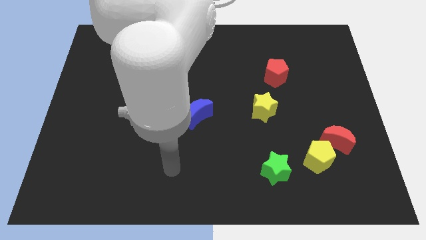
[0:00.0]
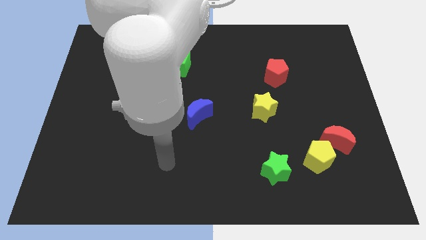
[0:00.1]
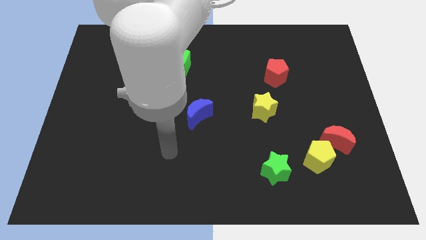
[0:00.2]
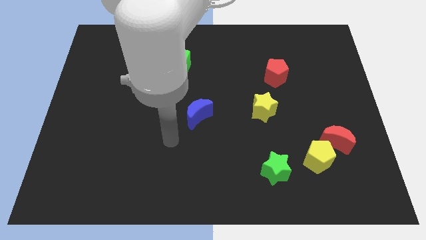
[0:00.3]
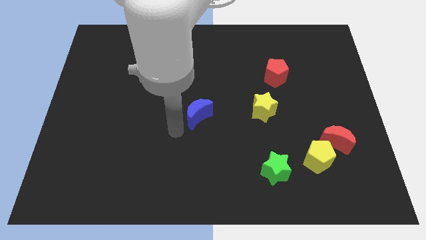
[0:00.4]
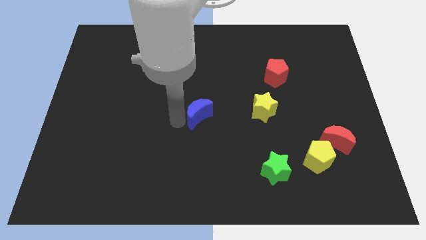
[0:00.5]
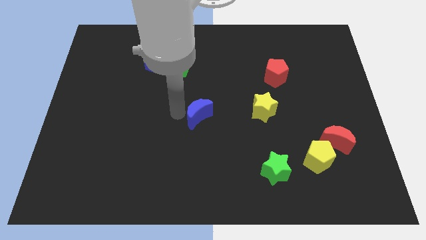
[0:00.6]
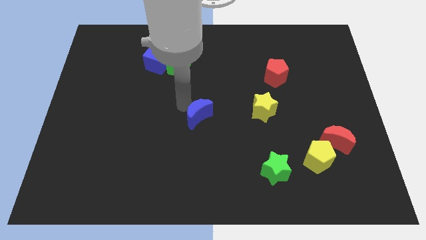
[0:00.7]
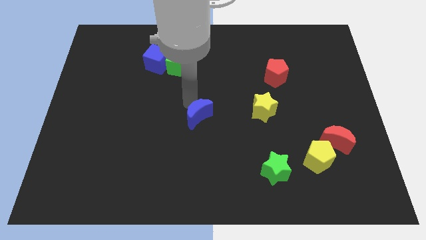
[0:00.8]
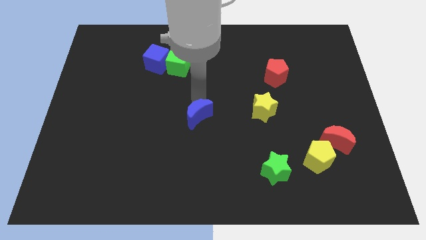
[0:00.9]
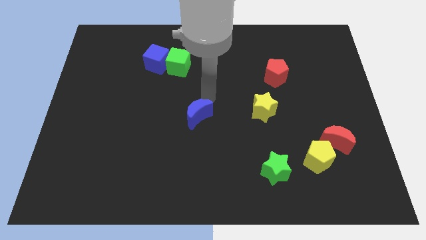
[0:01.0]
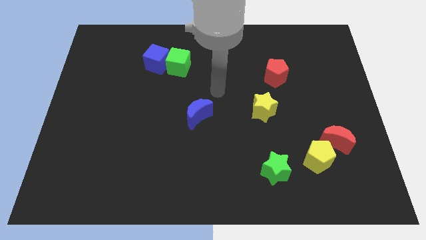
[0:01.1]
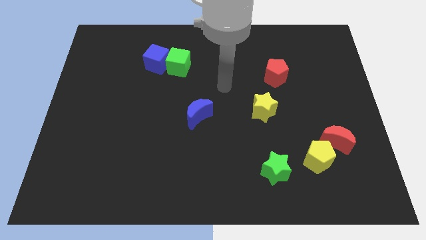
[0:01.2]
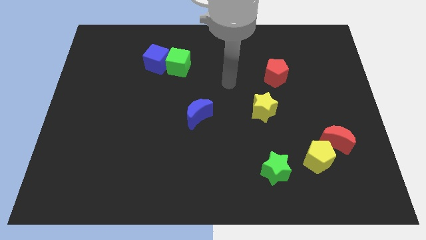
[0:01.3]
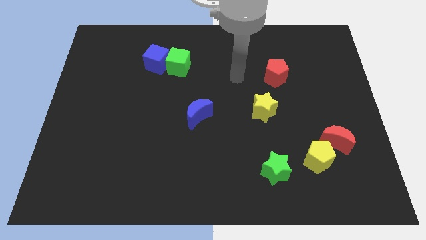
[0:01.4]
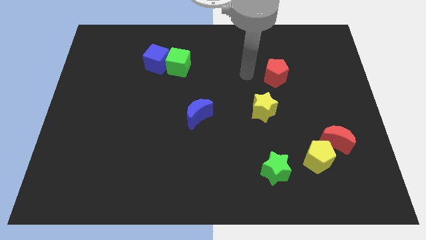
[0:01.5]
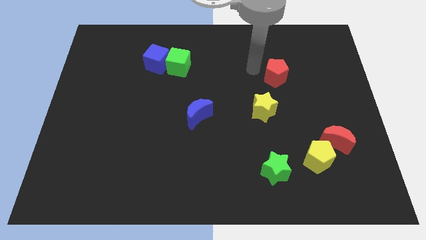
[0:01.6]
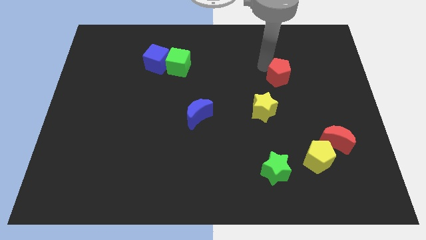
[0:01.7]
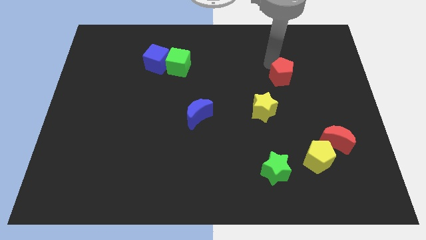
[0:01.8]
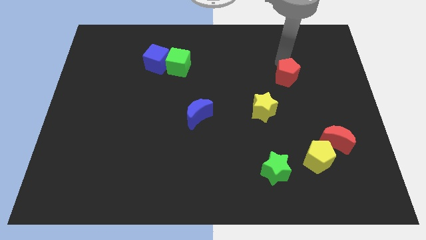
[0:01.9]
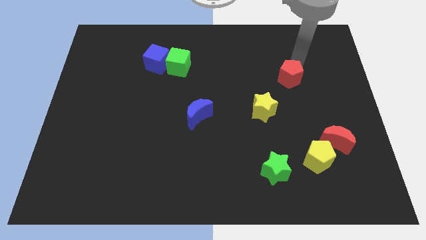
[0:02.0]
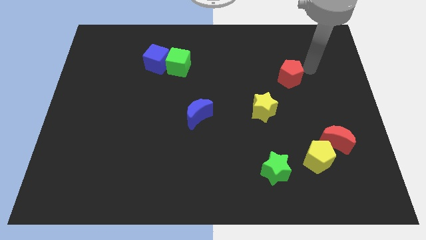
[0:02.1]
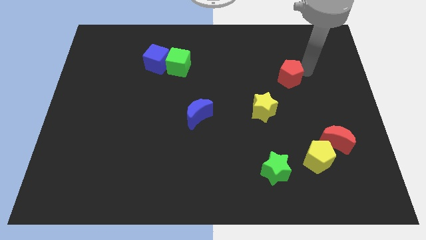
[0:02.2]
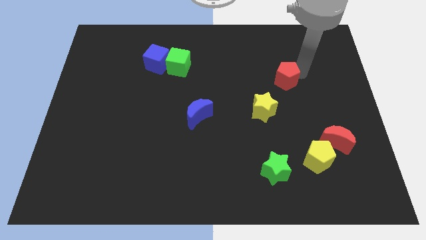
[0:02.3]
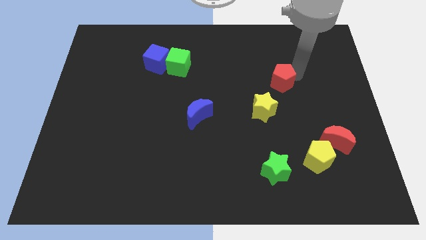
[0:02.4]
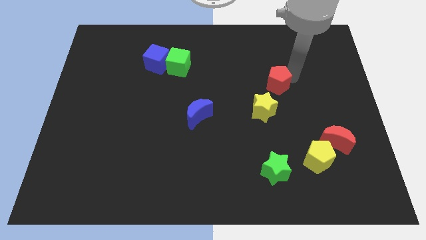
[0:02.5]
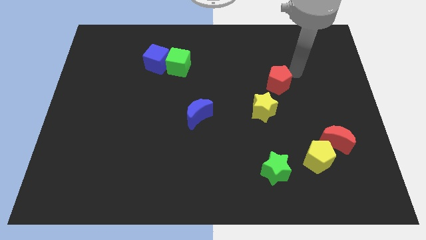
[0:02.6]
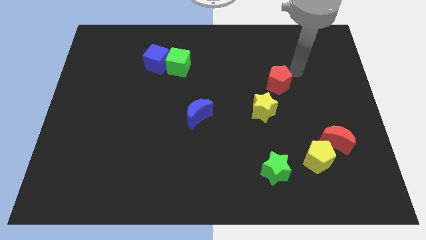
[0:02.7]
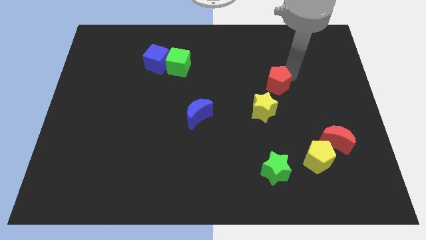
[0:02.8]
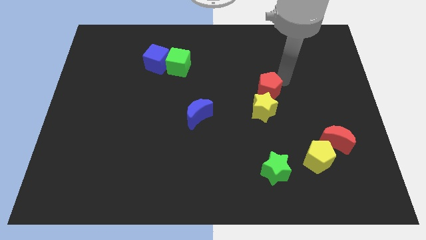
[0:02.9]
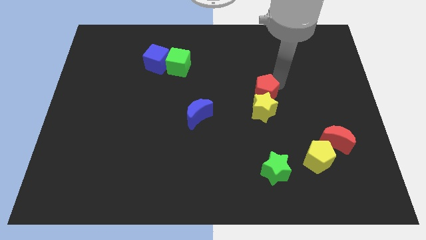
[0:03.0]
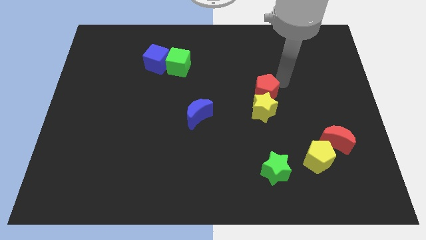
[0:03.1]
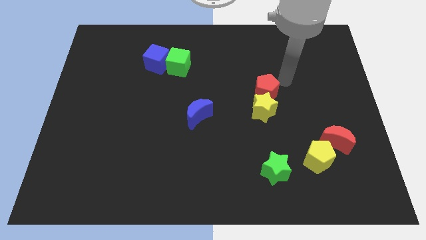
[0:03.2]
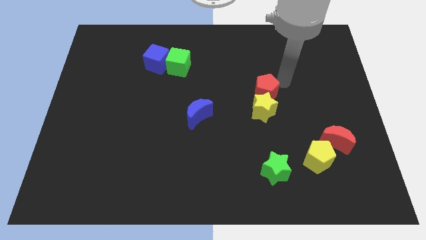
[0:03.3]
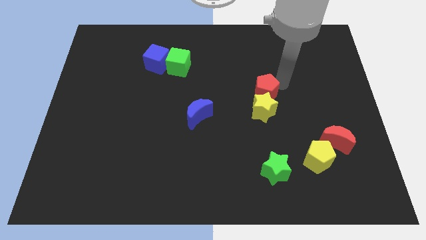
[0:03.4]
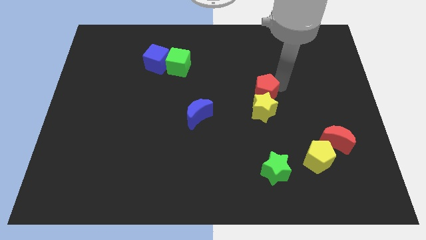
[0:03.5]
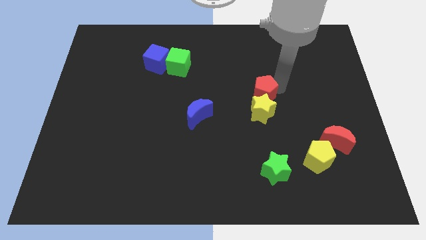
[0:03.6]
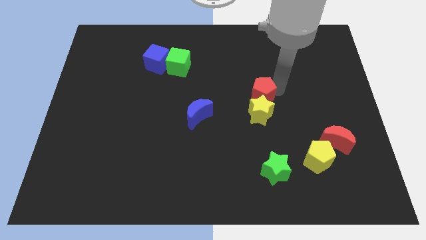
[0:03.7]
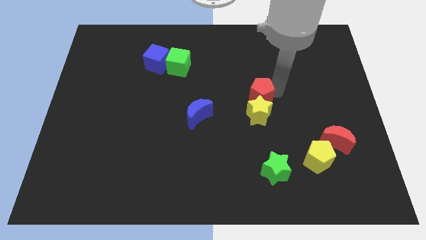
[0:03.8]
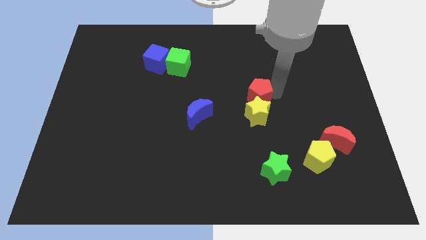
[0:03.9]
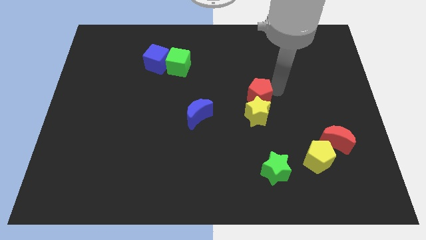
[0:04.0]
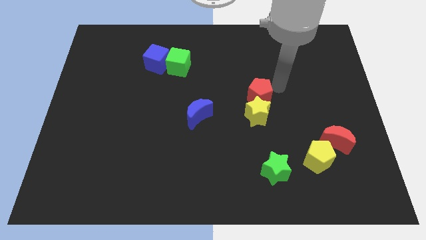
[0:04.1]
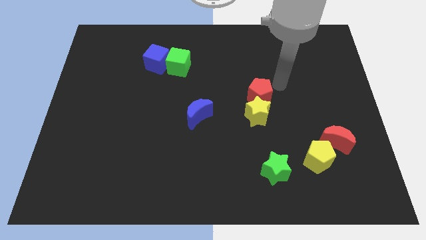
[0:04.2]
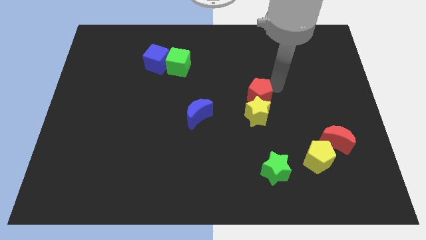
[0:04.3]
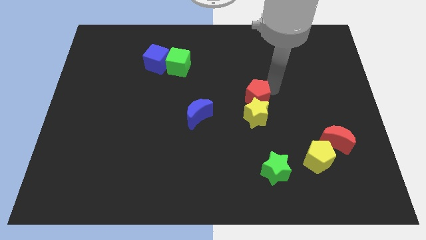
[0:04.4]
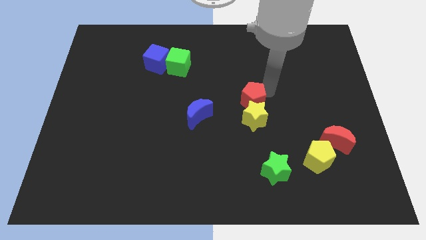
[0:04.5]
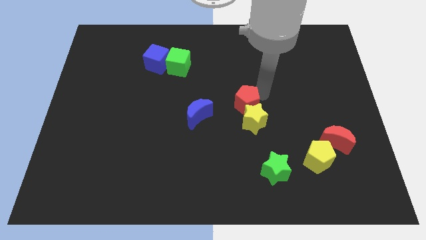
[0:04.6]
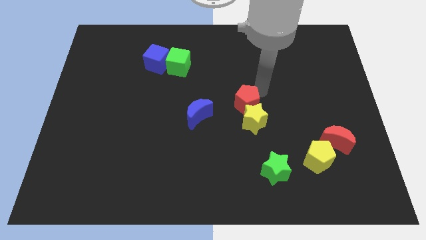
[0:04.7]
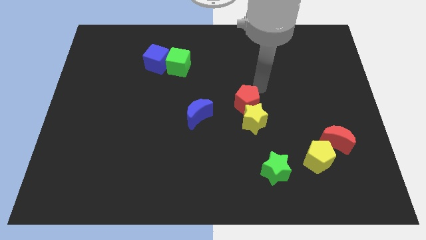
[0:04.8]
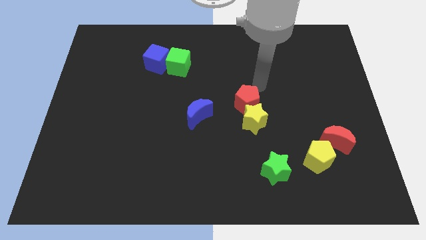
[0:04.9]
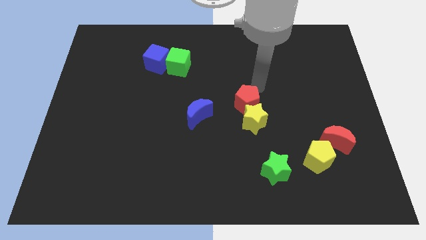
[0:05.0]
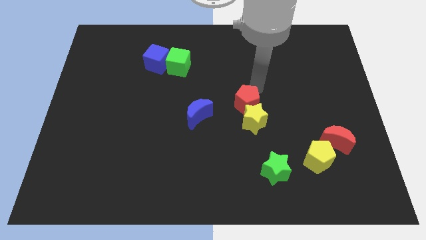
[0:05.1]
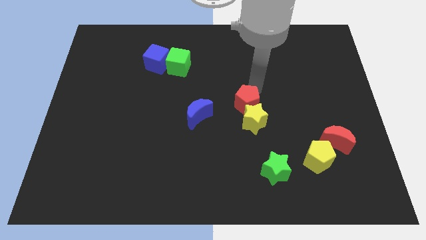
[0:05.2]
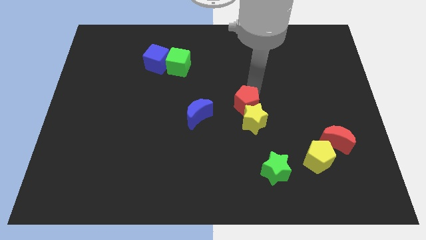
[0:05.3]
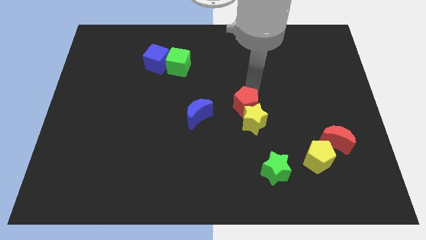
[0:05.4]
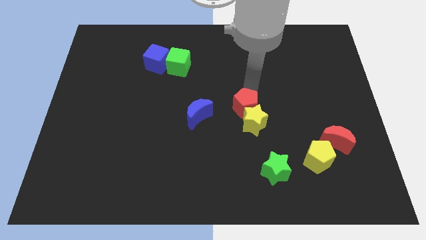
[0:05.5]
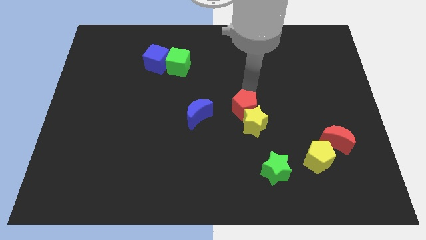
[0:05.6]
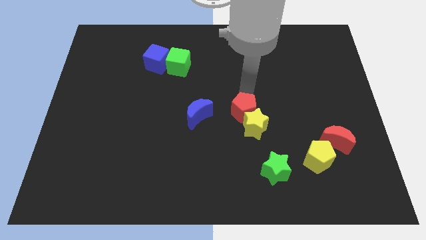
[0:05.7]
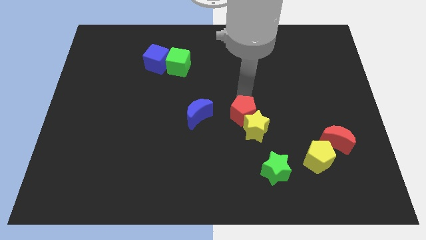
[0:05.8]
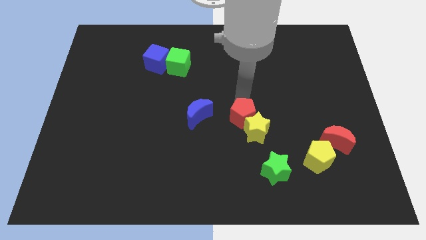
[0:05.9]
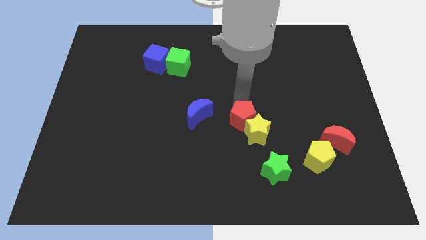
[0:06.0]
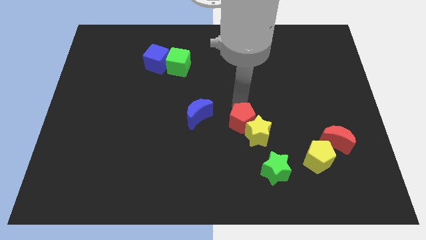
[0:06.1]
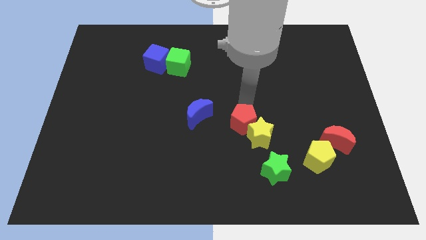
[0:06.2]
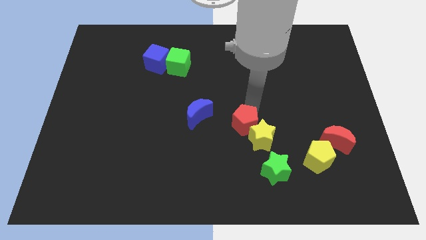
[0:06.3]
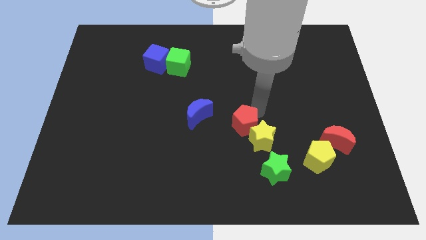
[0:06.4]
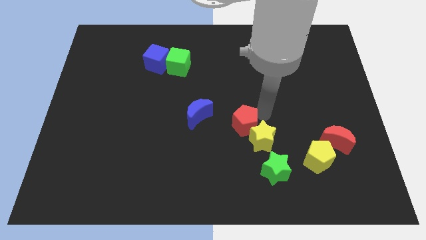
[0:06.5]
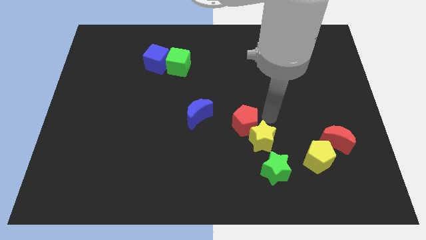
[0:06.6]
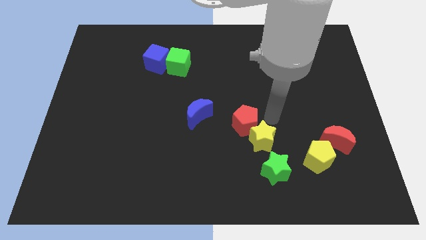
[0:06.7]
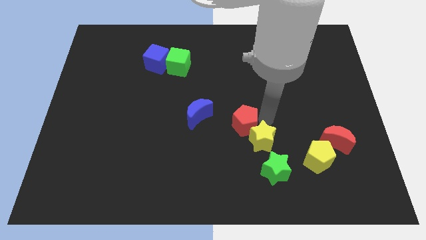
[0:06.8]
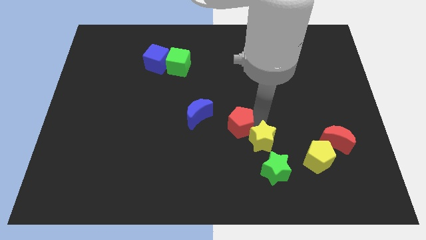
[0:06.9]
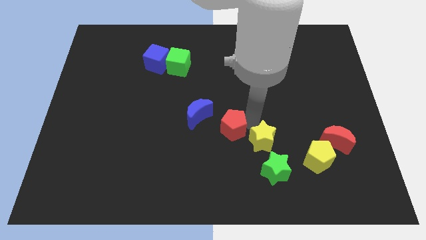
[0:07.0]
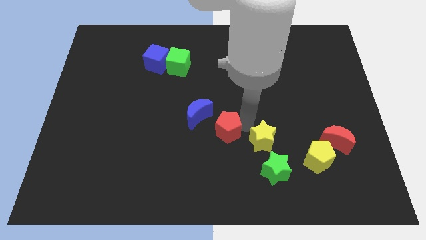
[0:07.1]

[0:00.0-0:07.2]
move the red pentagon diagonally downwards and to the left

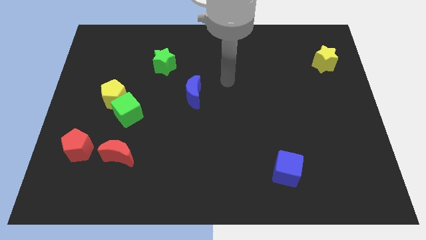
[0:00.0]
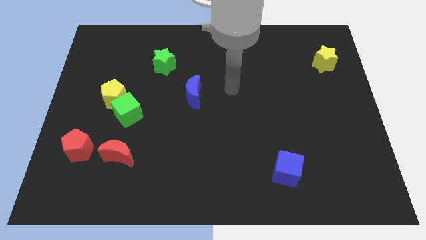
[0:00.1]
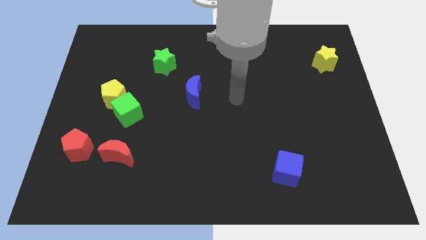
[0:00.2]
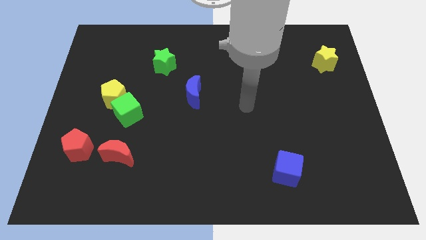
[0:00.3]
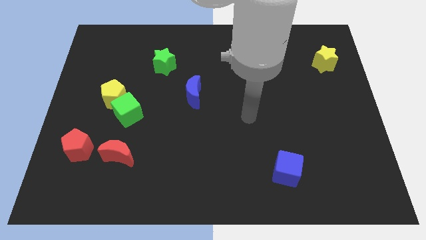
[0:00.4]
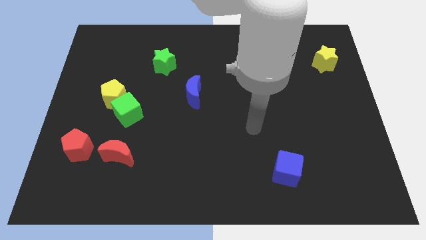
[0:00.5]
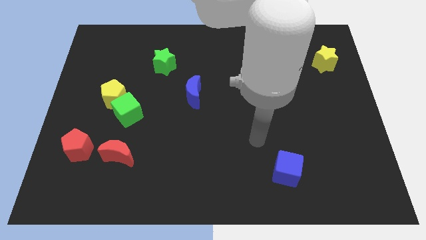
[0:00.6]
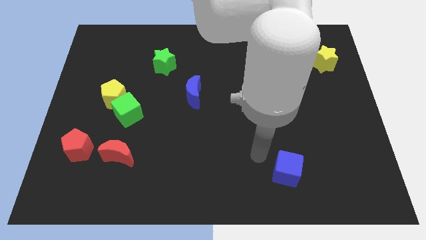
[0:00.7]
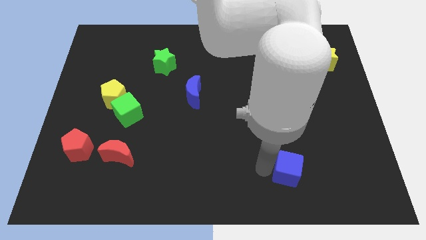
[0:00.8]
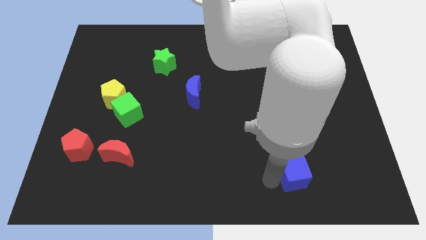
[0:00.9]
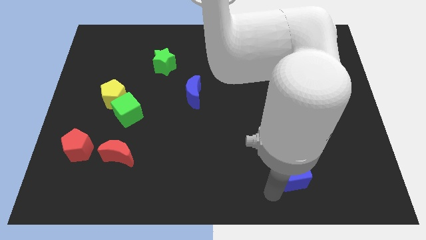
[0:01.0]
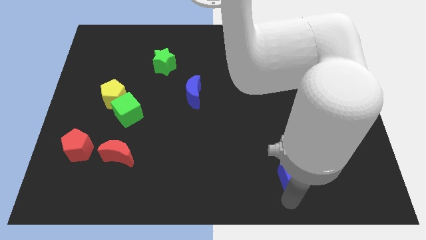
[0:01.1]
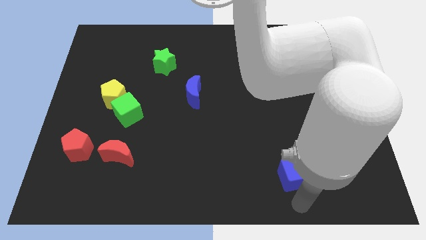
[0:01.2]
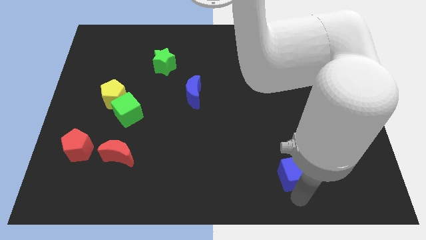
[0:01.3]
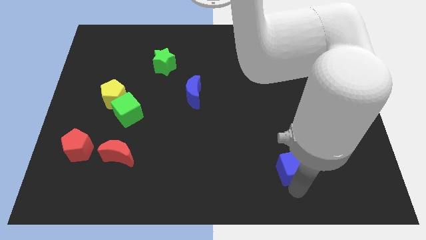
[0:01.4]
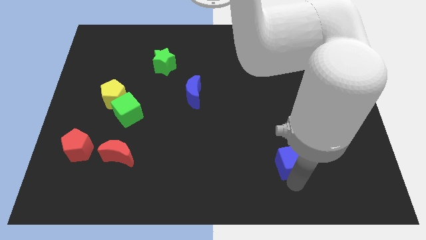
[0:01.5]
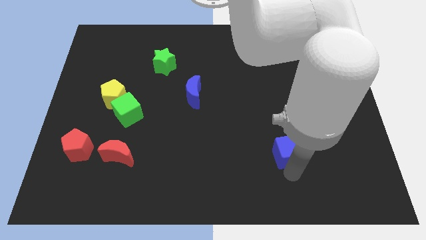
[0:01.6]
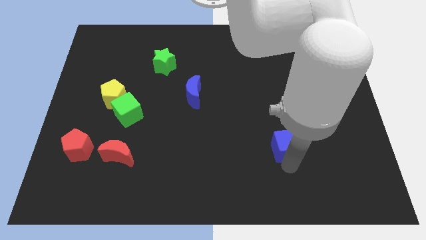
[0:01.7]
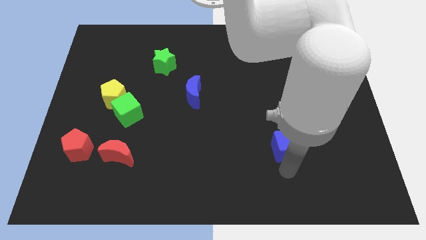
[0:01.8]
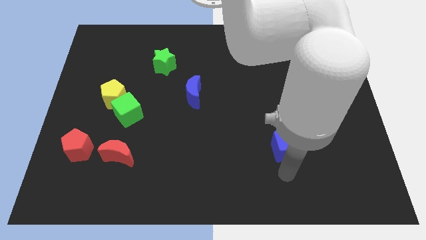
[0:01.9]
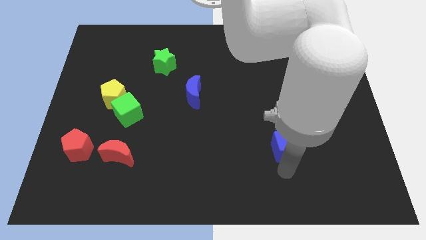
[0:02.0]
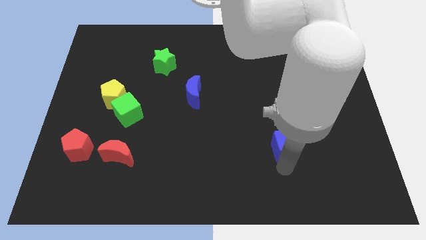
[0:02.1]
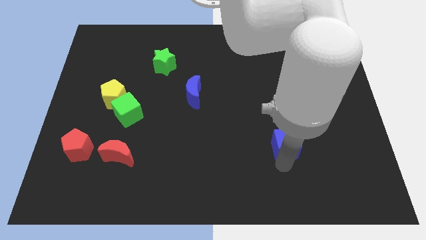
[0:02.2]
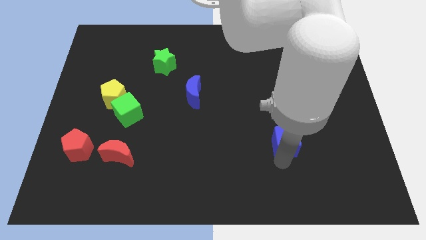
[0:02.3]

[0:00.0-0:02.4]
slightly push the blue cube up
